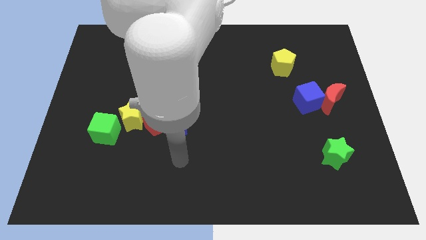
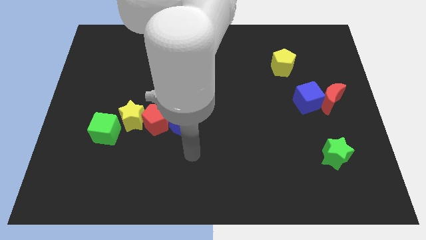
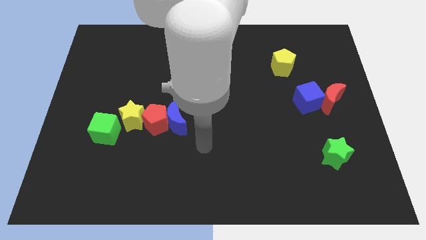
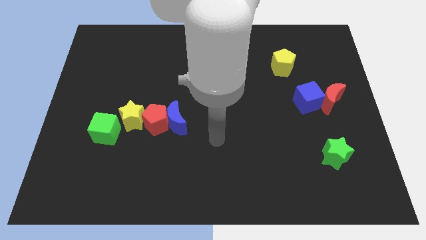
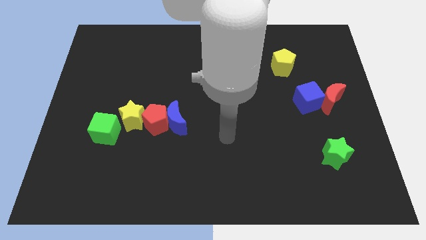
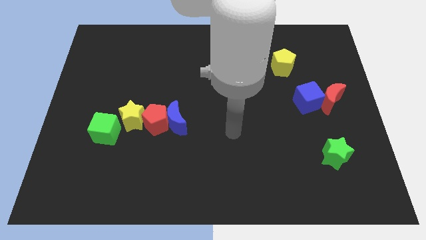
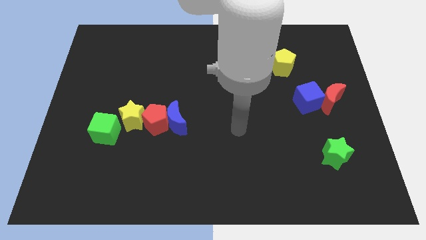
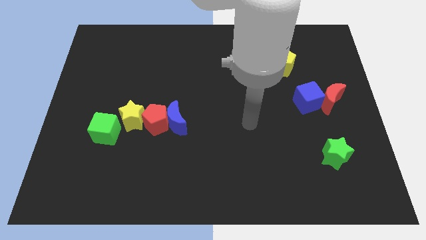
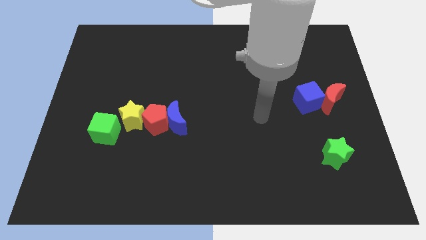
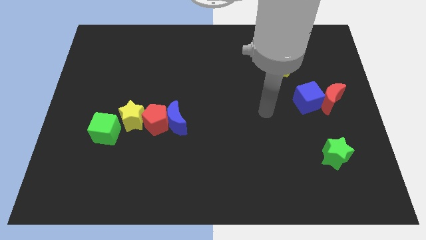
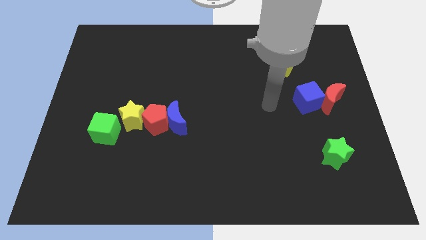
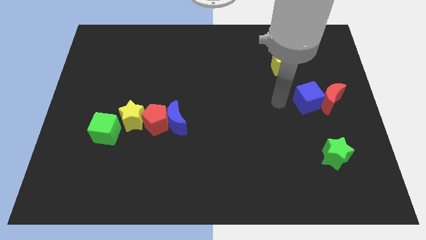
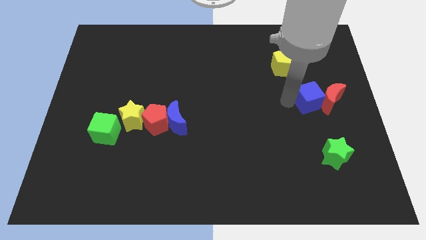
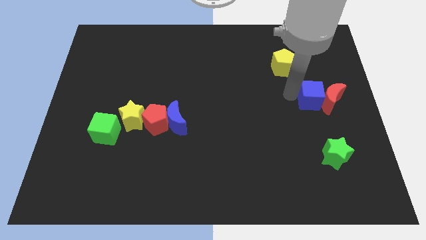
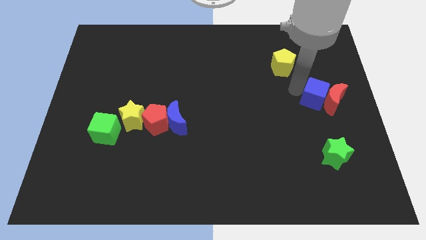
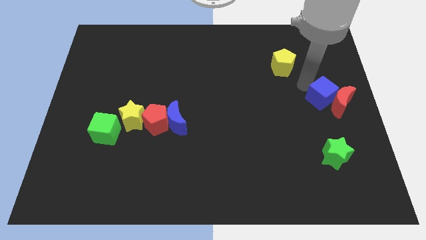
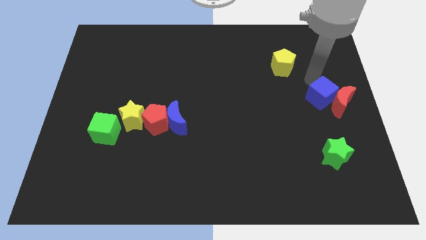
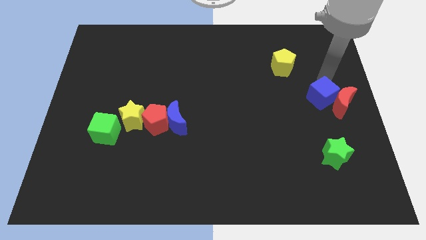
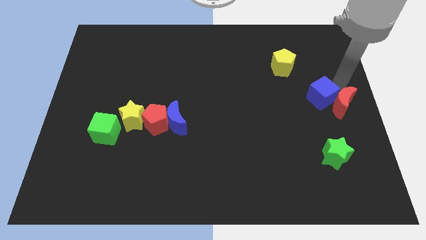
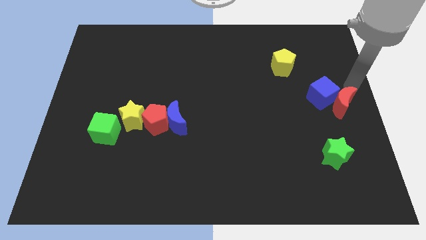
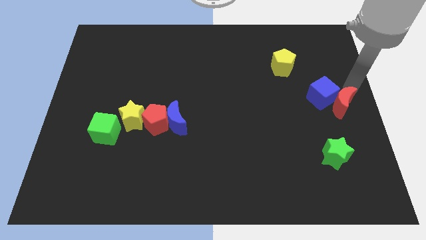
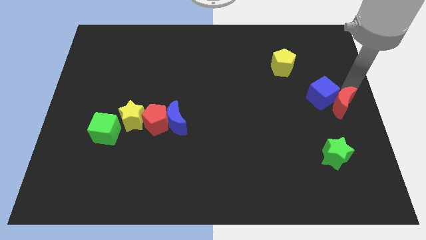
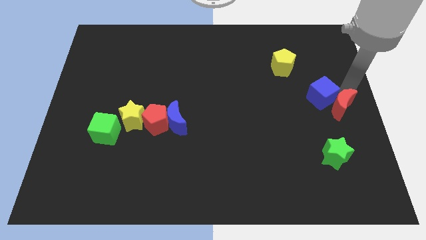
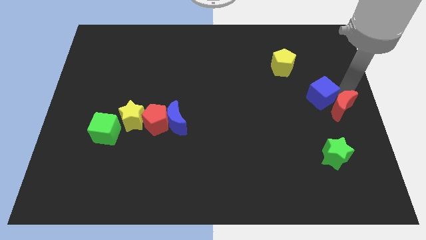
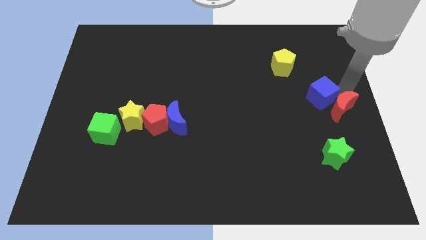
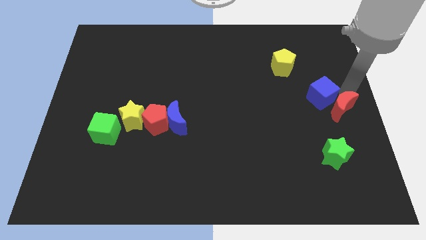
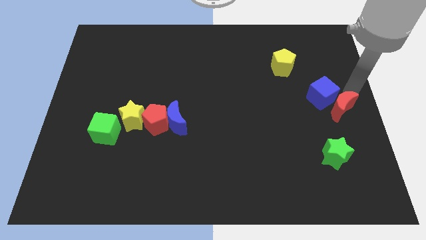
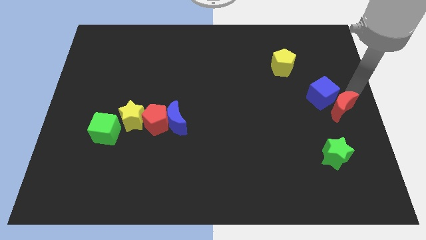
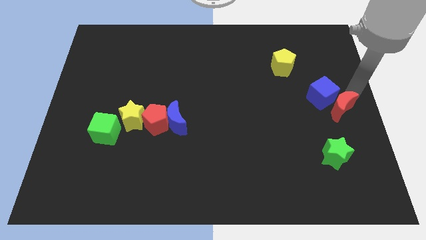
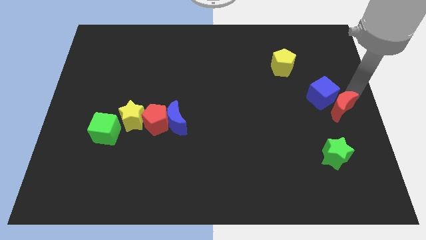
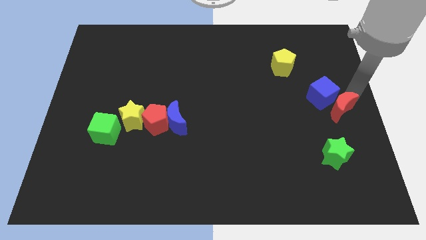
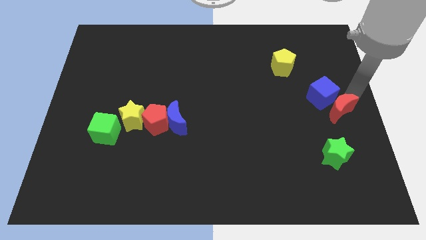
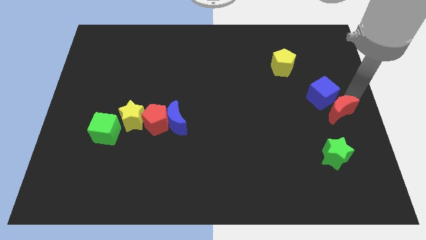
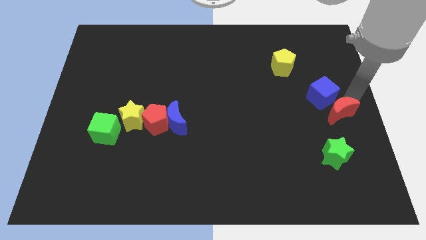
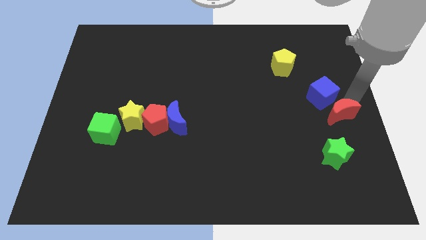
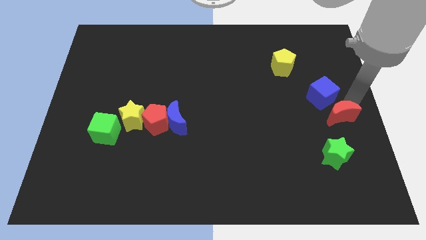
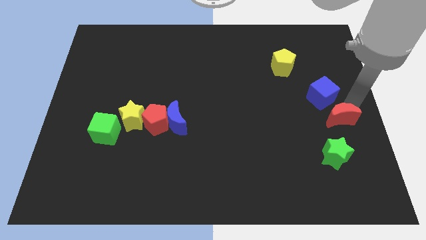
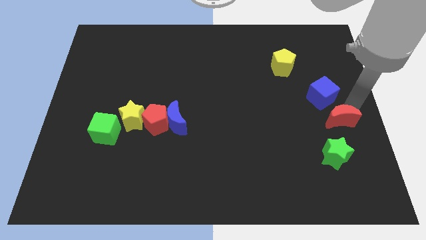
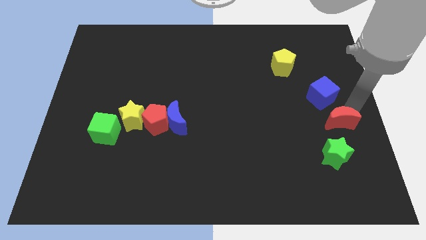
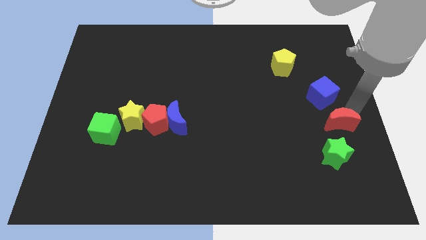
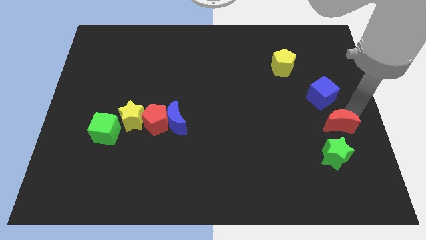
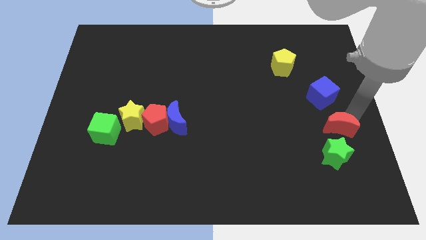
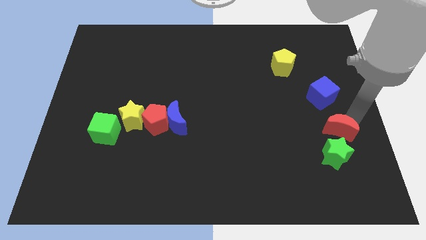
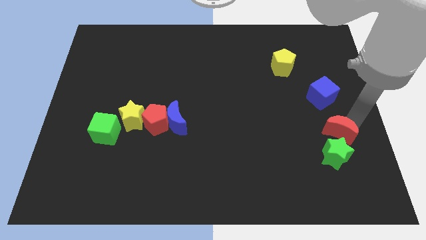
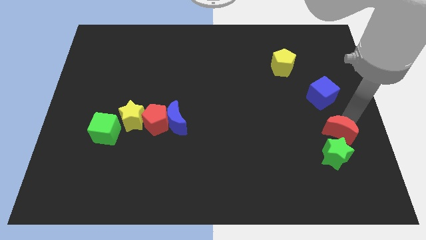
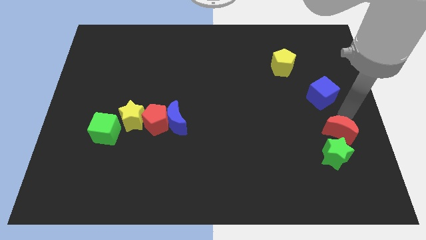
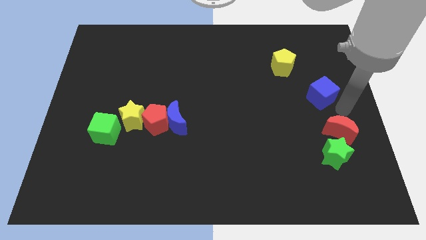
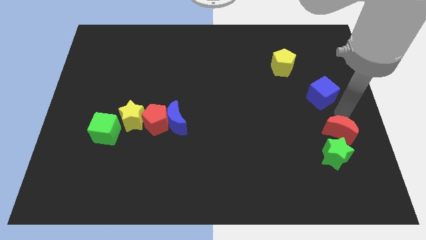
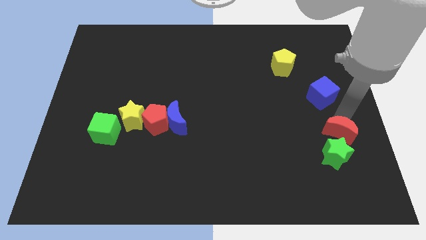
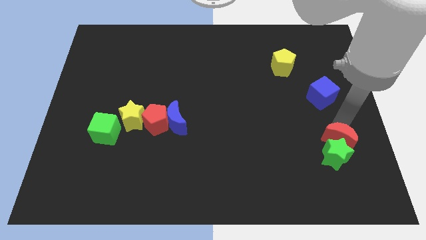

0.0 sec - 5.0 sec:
push the red moon close to the green star

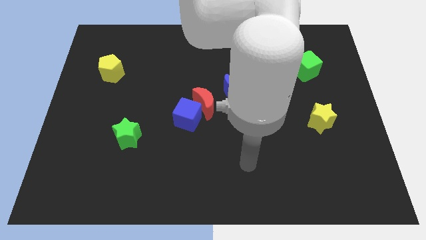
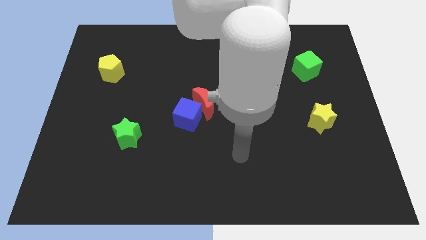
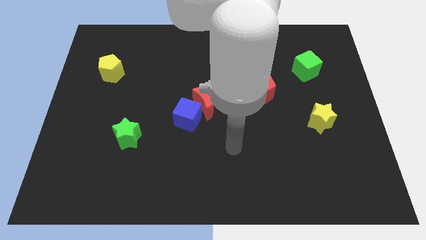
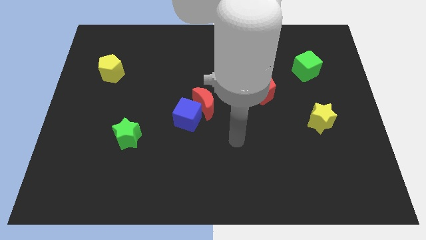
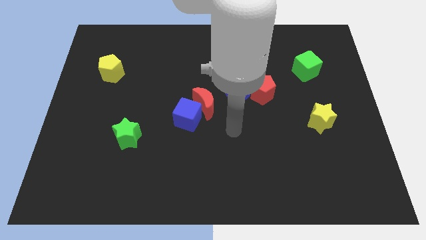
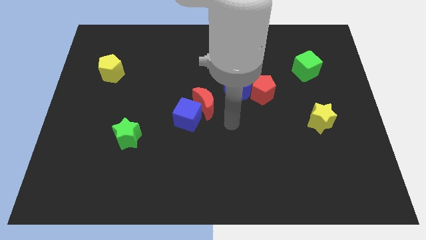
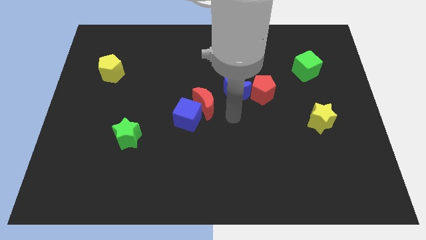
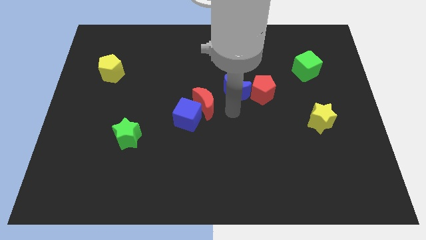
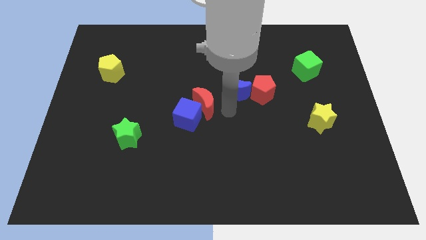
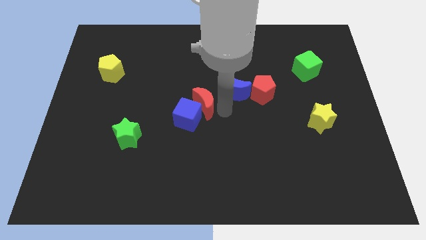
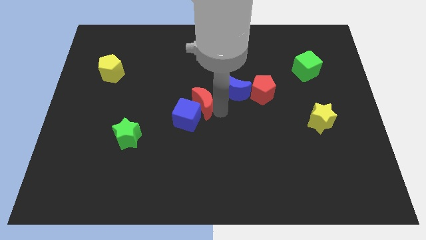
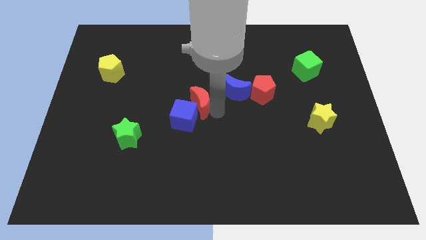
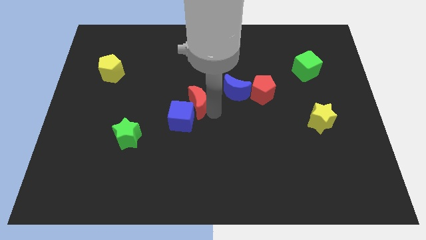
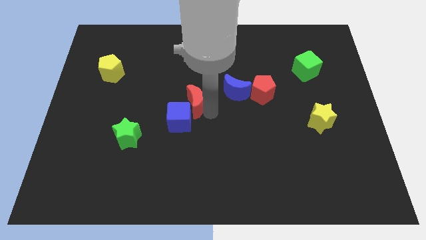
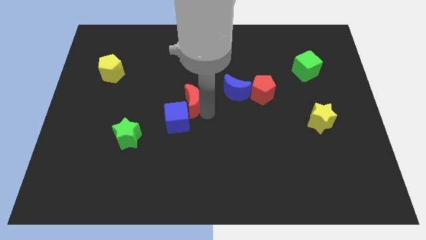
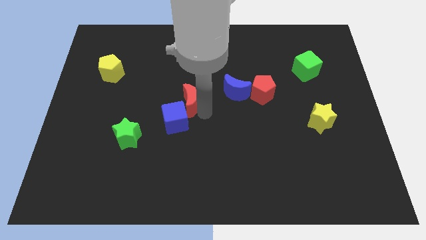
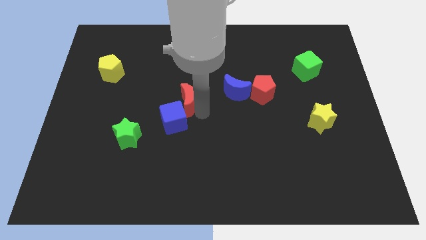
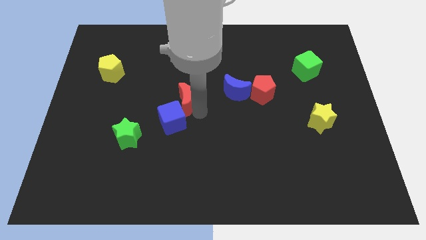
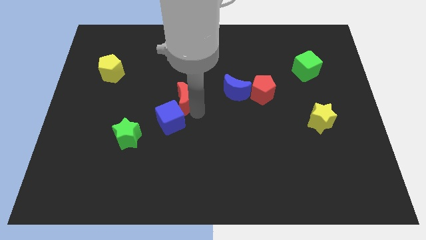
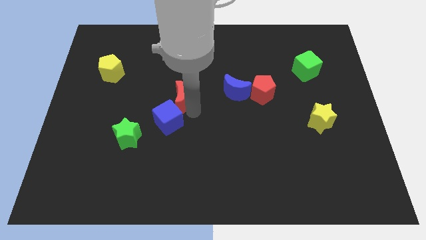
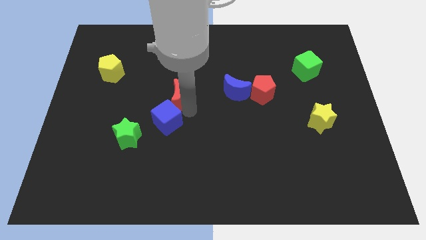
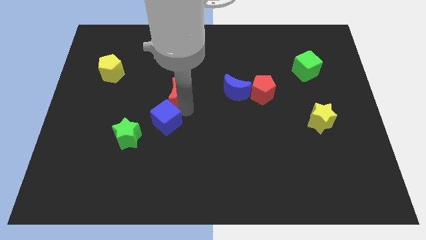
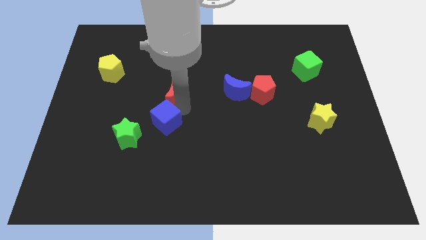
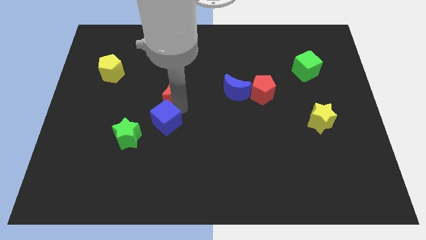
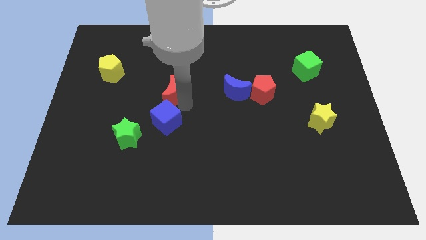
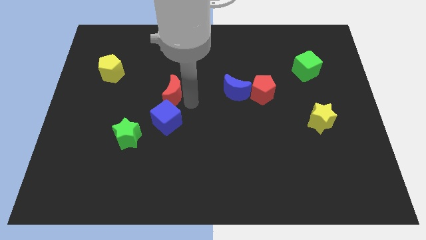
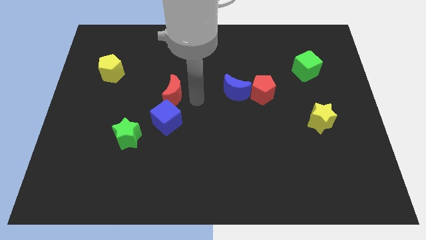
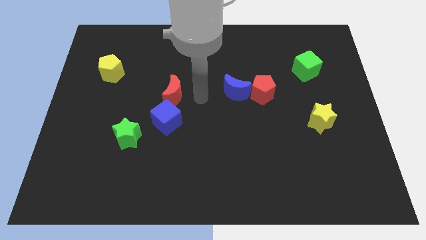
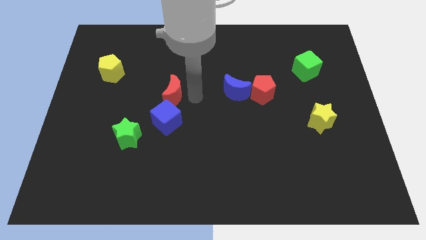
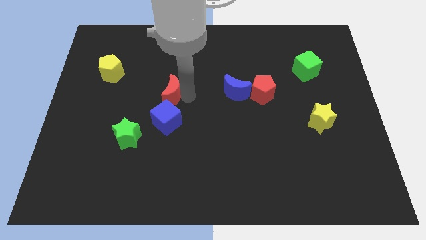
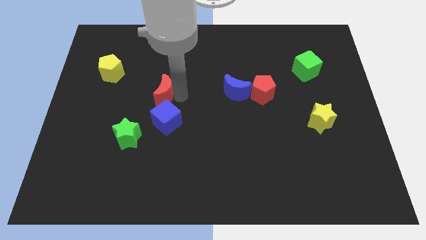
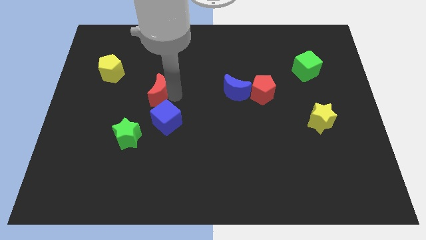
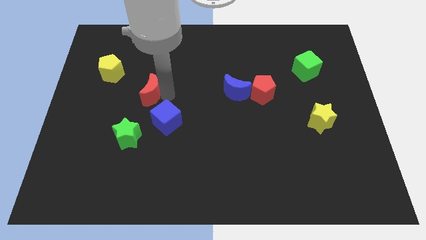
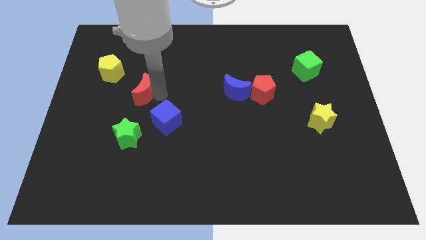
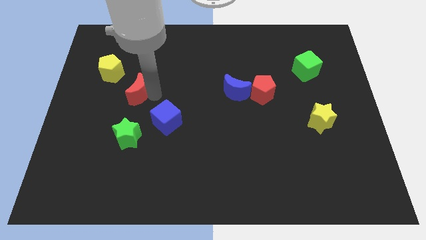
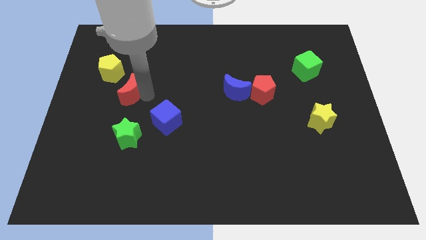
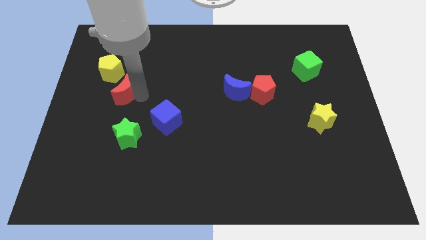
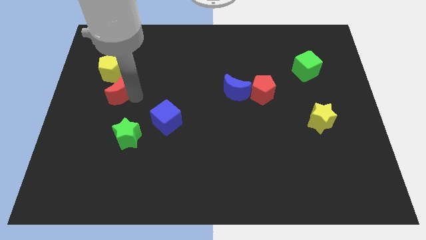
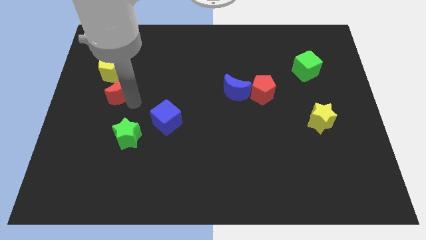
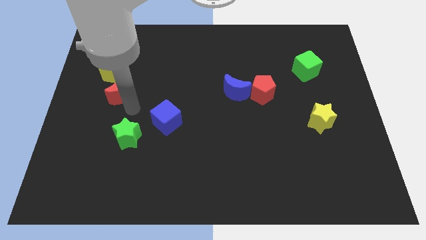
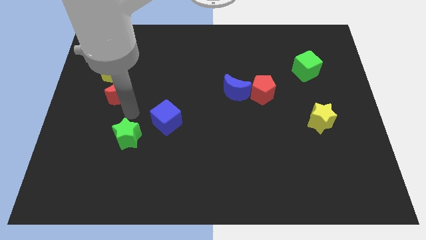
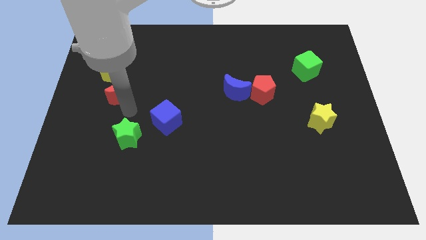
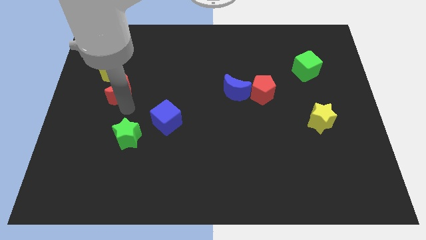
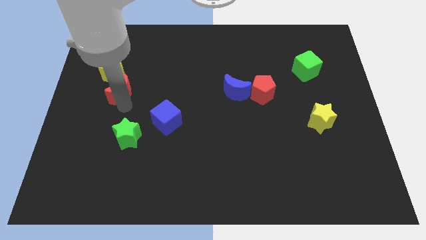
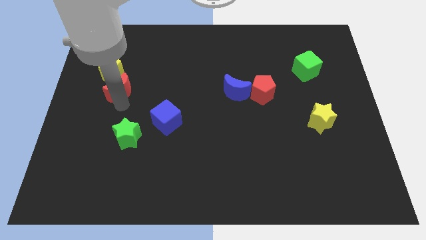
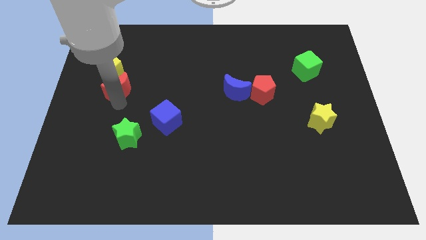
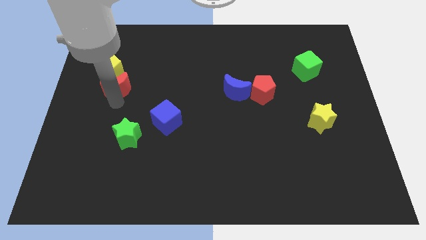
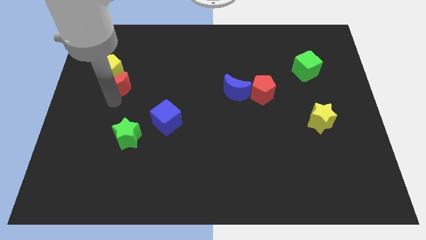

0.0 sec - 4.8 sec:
move the red moon close to the yellow pentagon
